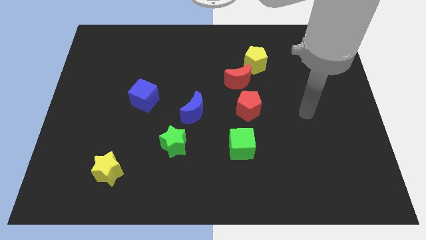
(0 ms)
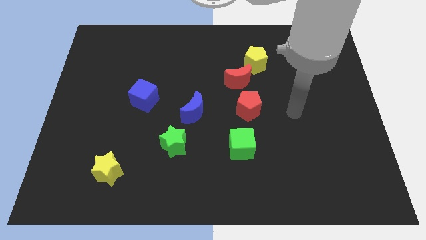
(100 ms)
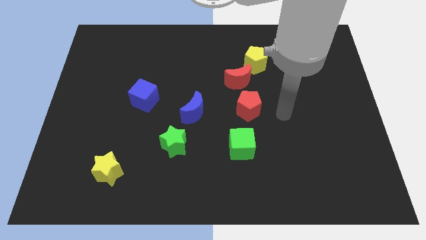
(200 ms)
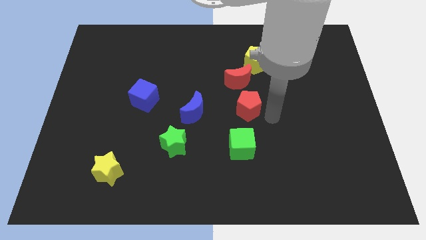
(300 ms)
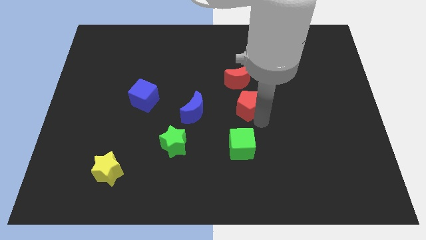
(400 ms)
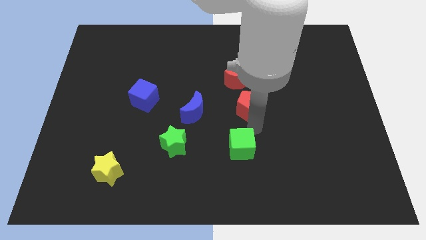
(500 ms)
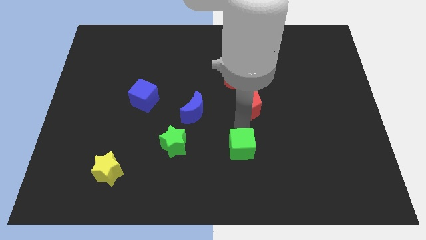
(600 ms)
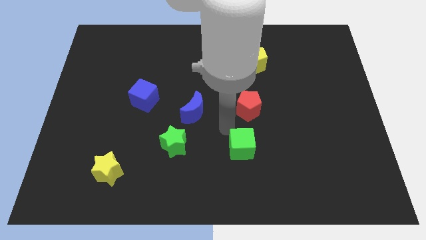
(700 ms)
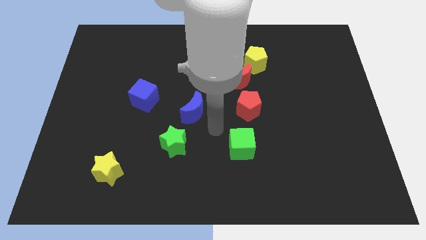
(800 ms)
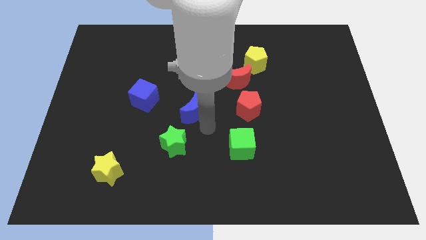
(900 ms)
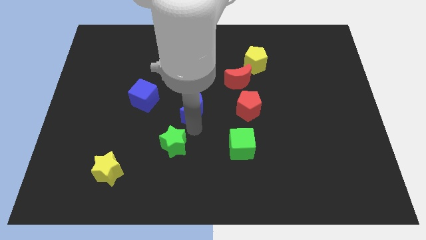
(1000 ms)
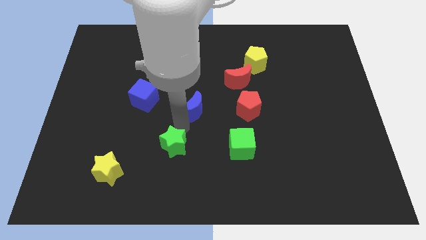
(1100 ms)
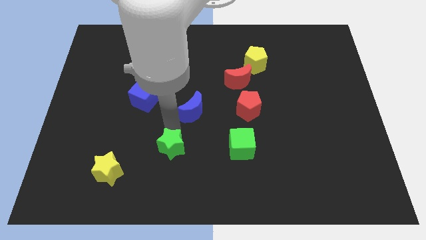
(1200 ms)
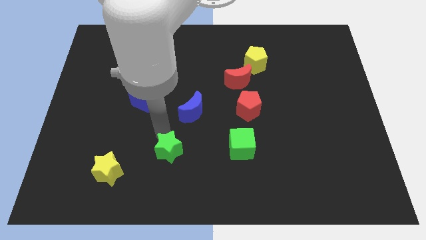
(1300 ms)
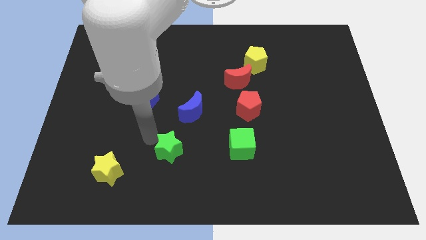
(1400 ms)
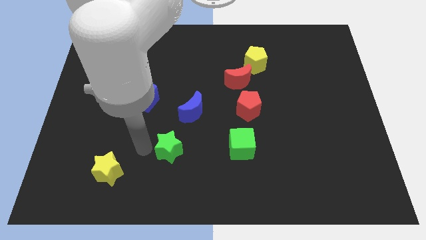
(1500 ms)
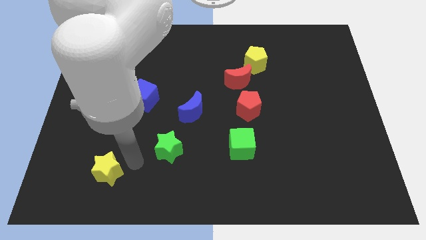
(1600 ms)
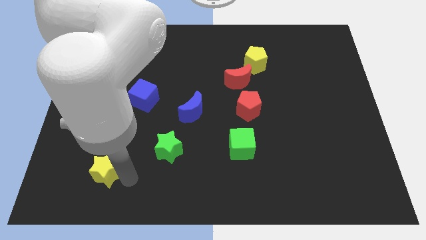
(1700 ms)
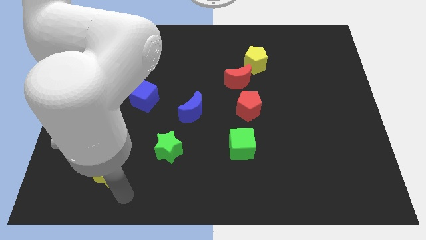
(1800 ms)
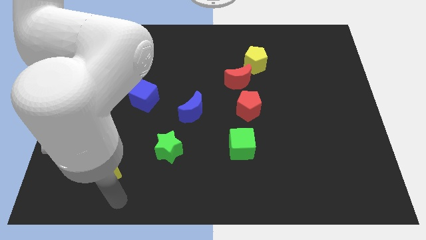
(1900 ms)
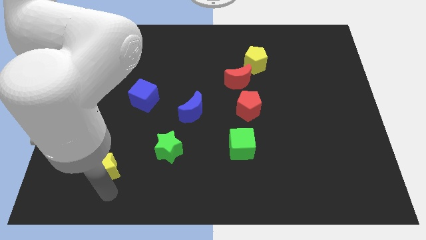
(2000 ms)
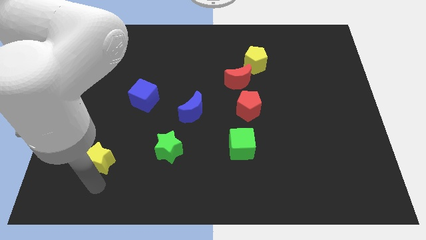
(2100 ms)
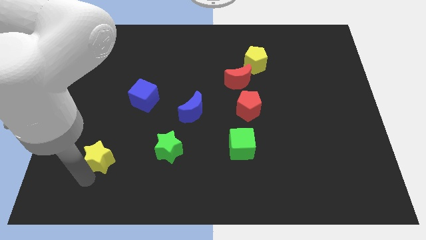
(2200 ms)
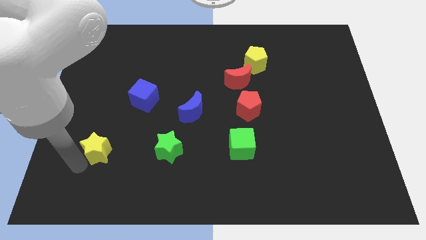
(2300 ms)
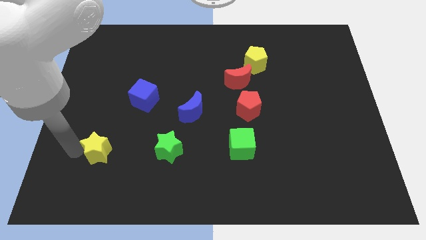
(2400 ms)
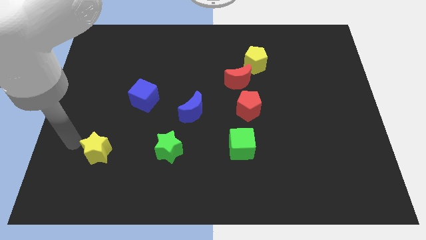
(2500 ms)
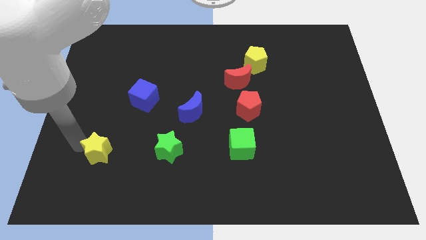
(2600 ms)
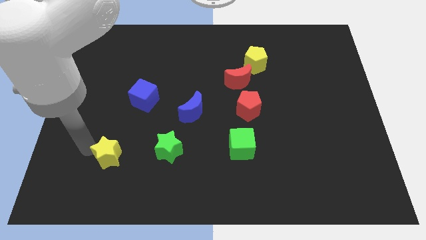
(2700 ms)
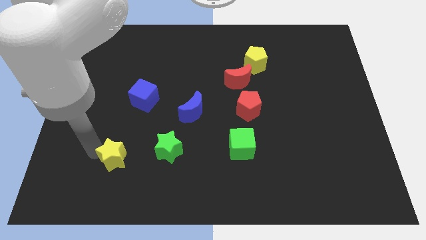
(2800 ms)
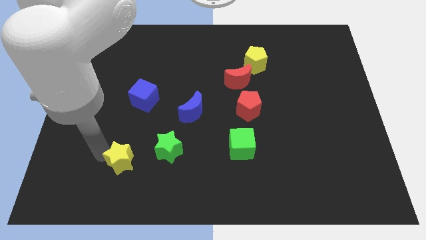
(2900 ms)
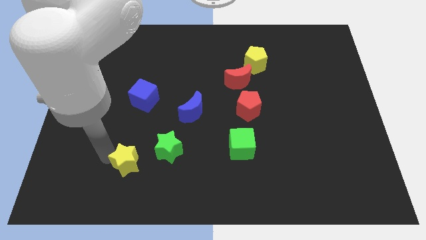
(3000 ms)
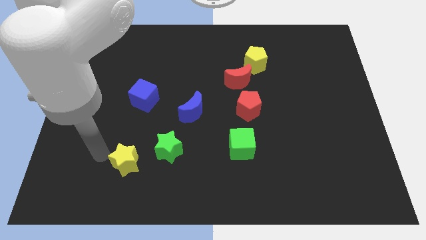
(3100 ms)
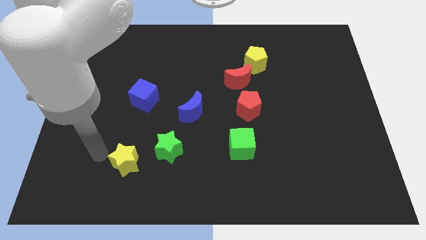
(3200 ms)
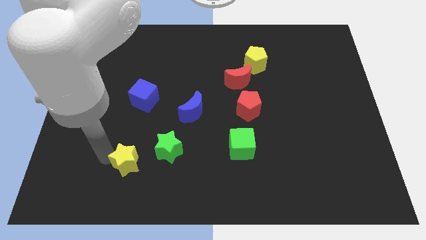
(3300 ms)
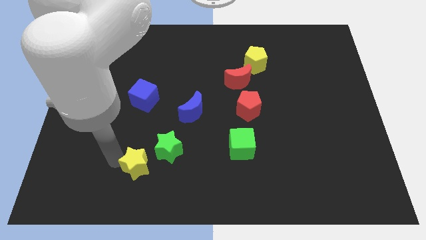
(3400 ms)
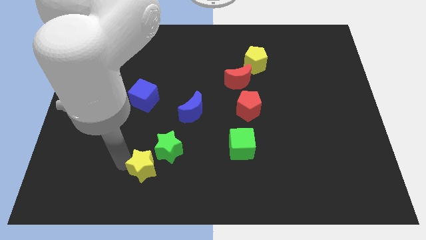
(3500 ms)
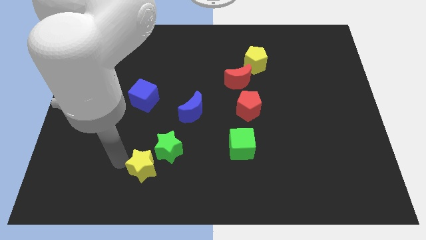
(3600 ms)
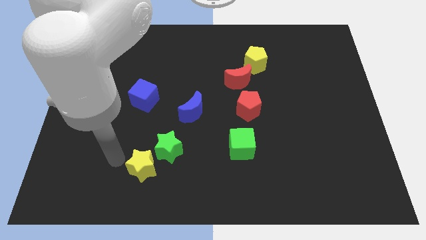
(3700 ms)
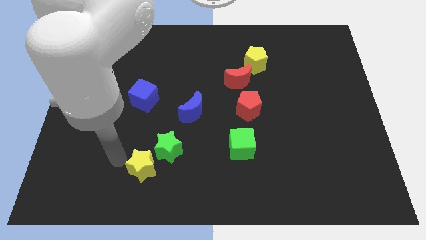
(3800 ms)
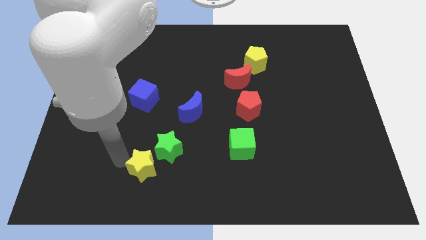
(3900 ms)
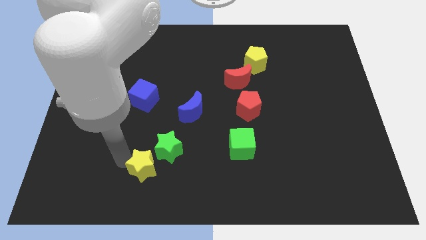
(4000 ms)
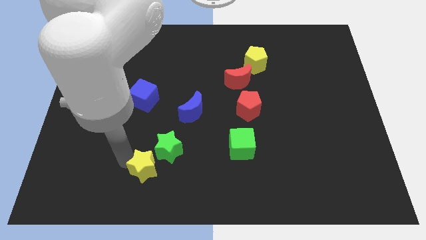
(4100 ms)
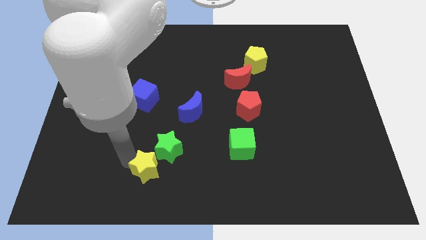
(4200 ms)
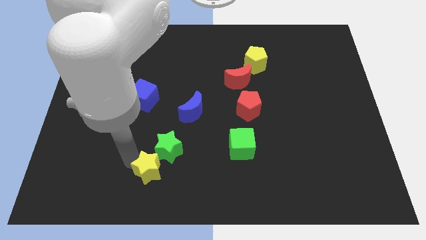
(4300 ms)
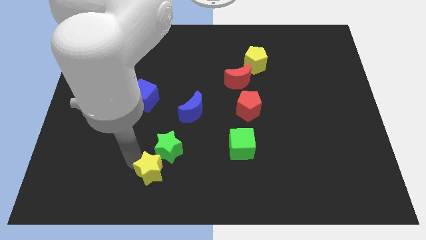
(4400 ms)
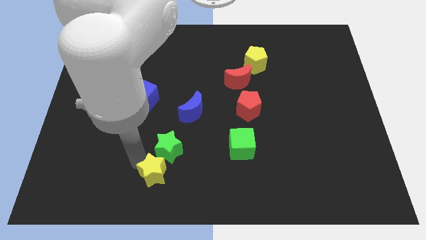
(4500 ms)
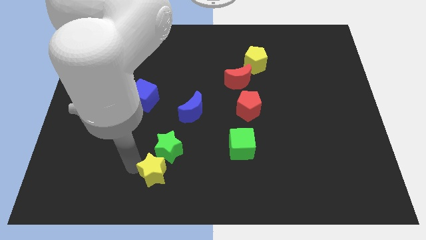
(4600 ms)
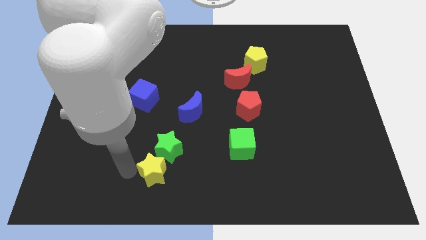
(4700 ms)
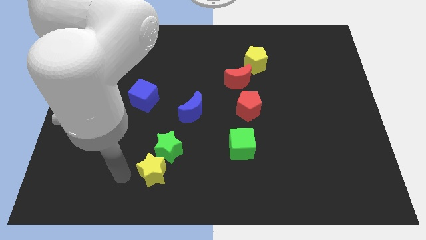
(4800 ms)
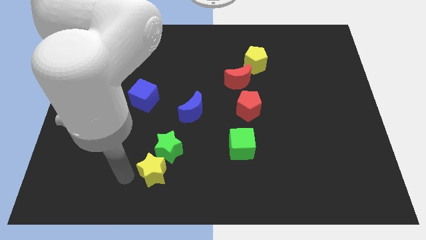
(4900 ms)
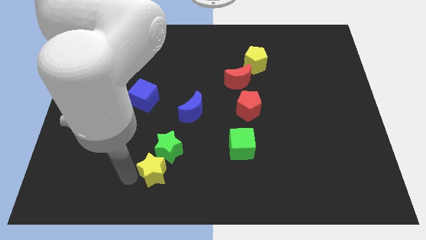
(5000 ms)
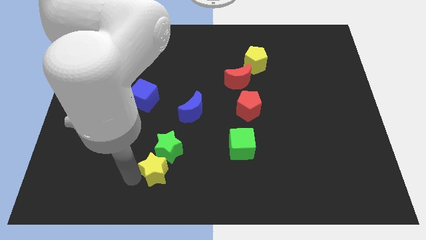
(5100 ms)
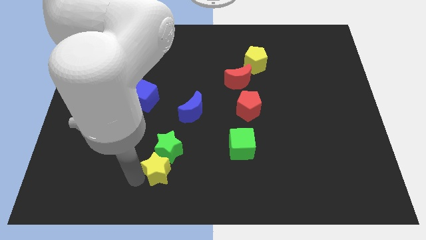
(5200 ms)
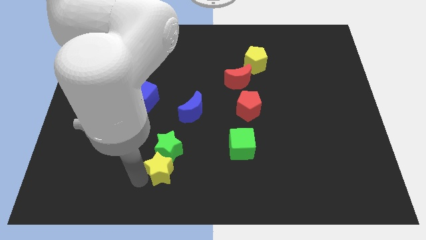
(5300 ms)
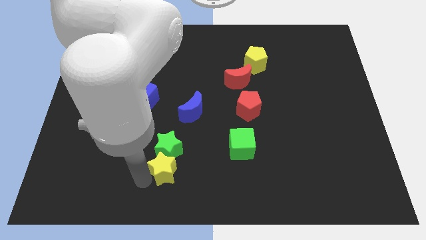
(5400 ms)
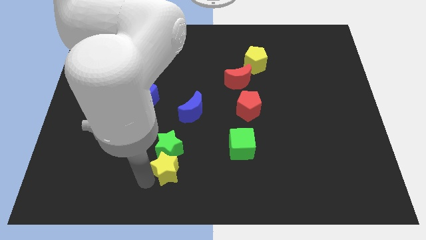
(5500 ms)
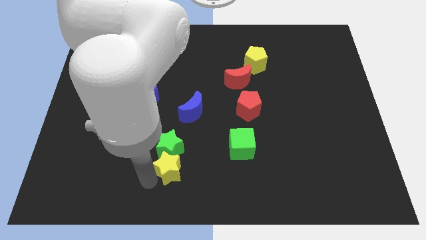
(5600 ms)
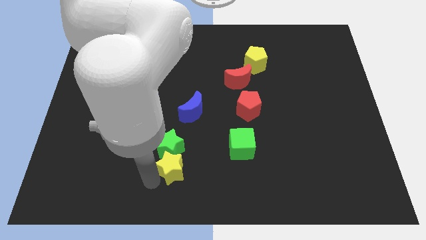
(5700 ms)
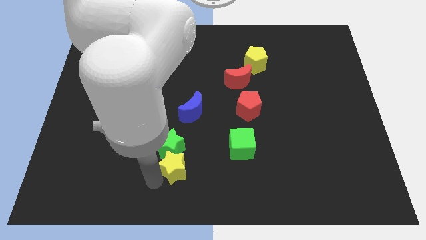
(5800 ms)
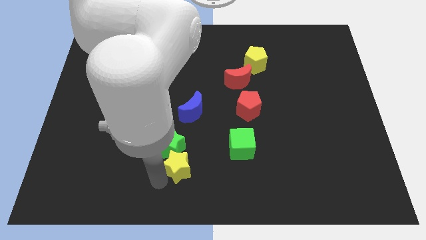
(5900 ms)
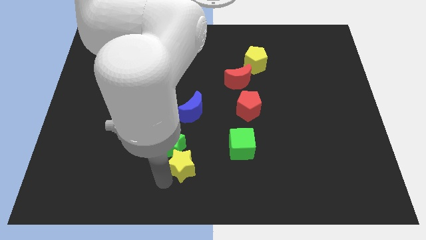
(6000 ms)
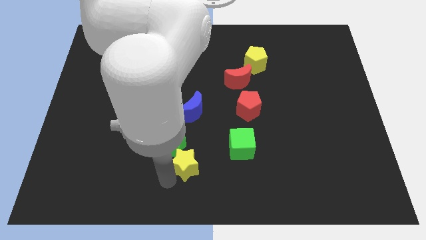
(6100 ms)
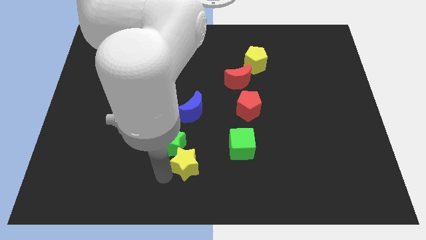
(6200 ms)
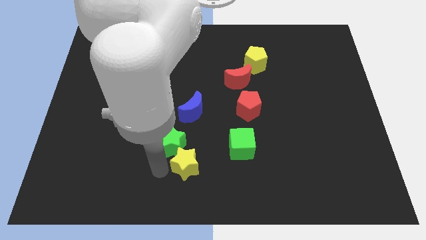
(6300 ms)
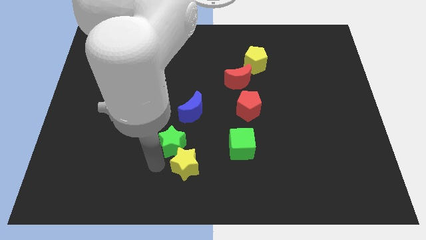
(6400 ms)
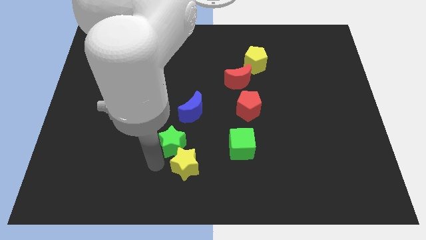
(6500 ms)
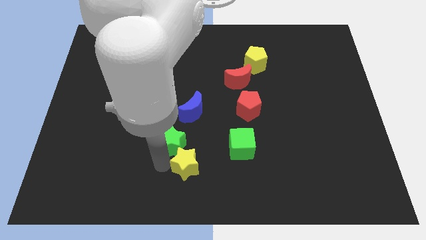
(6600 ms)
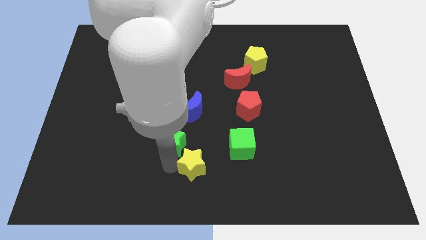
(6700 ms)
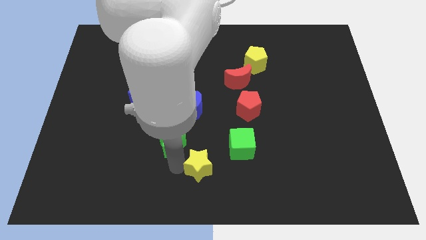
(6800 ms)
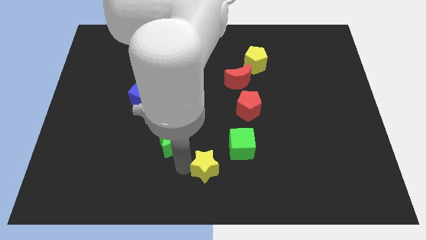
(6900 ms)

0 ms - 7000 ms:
push the yellow star to the right

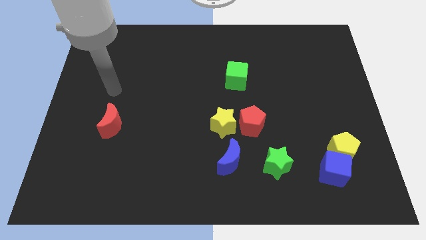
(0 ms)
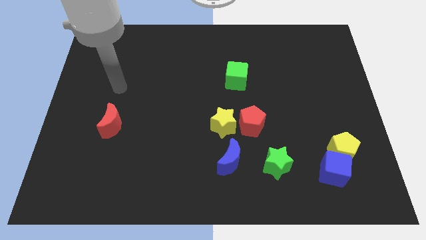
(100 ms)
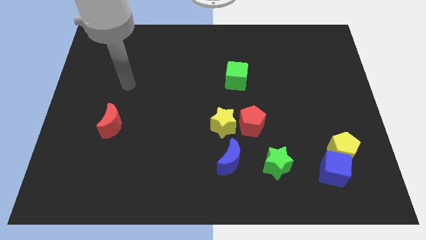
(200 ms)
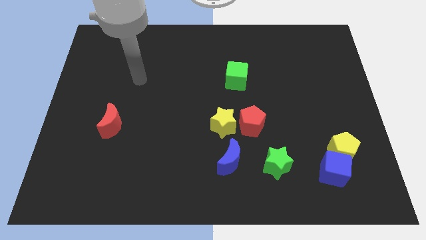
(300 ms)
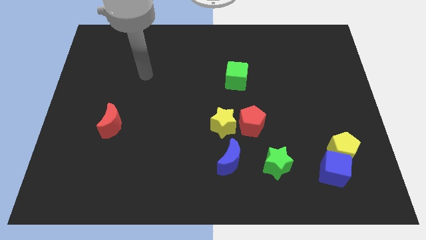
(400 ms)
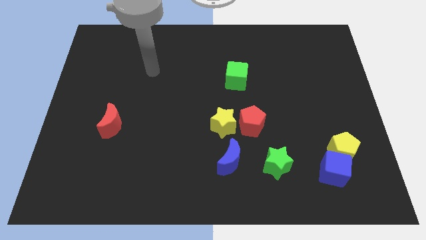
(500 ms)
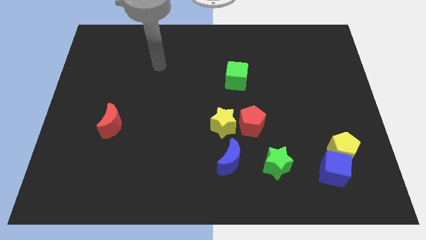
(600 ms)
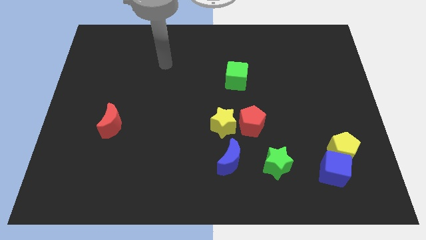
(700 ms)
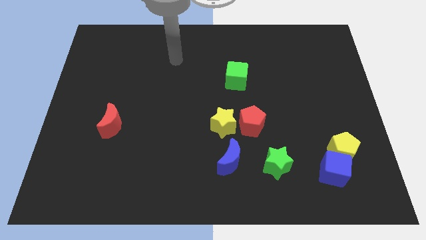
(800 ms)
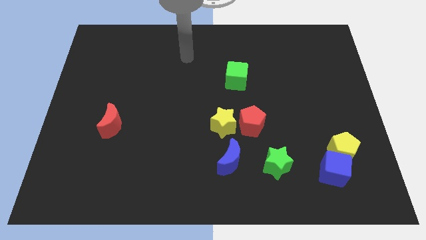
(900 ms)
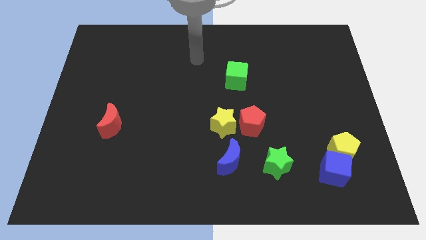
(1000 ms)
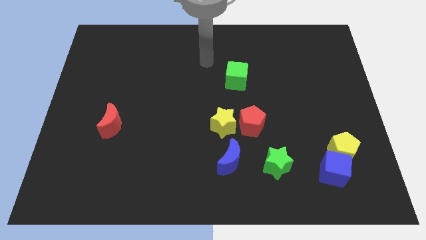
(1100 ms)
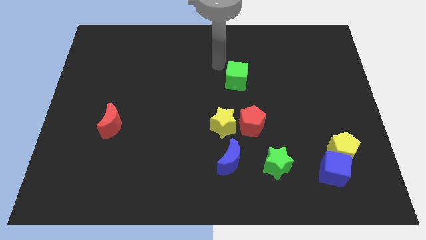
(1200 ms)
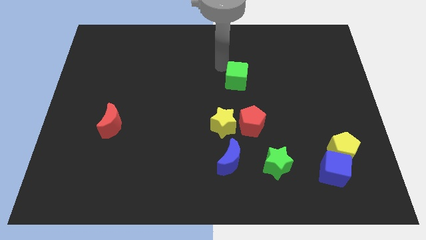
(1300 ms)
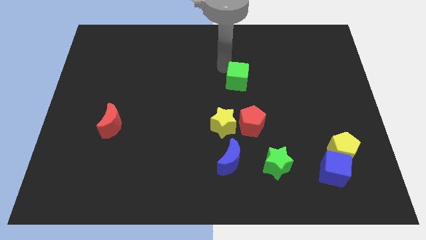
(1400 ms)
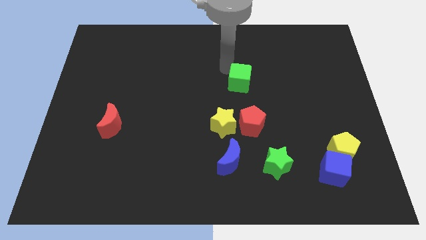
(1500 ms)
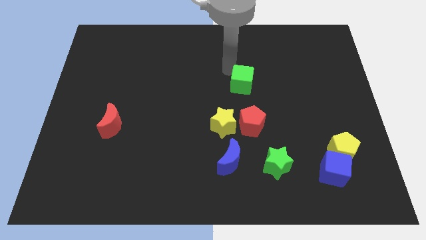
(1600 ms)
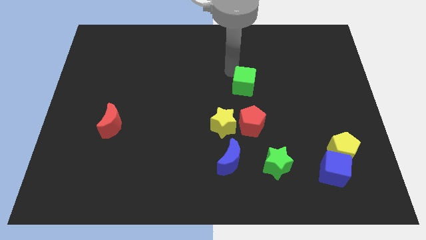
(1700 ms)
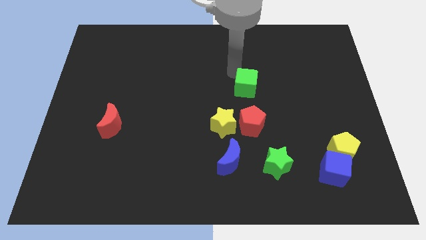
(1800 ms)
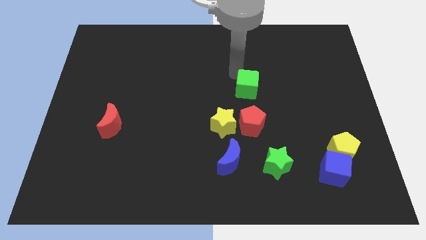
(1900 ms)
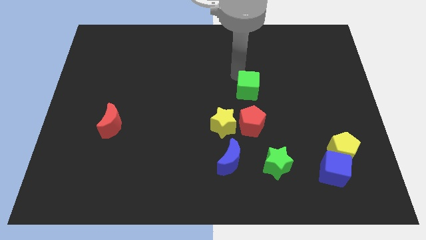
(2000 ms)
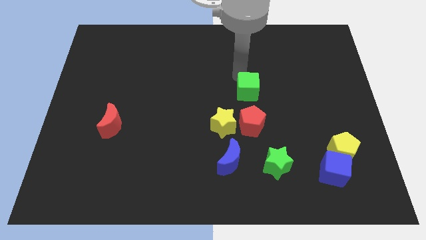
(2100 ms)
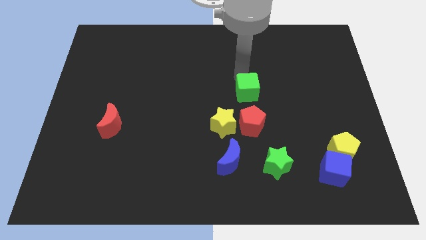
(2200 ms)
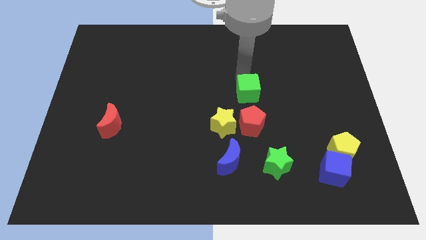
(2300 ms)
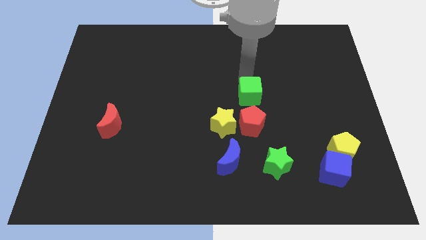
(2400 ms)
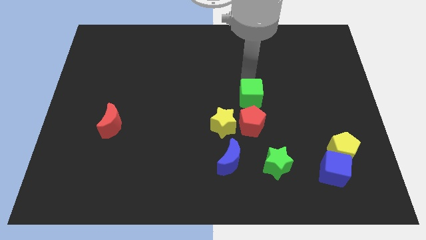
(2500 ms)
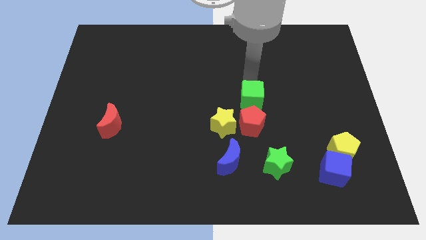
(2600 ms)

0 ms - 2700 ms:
push the green cube a little diagonally down and right
